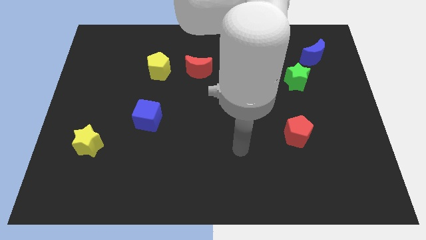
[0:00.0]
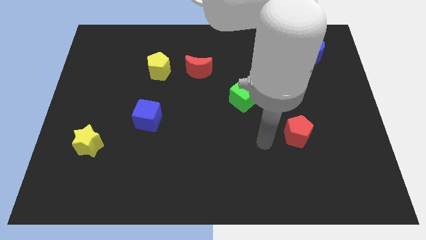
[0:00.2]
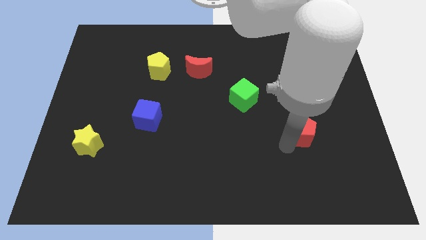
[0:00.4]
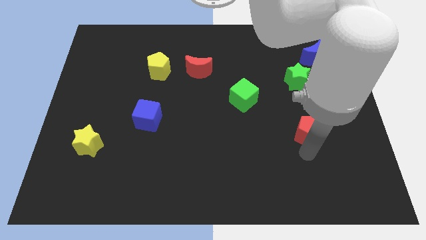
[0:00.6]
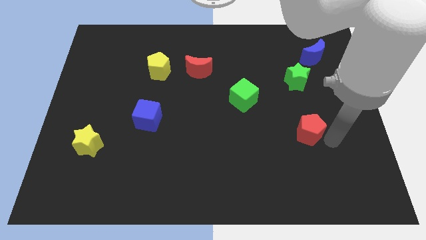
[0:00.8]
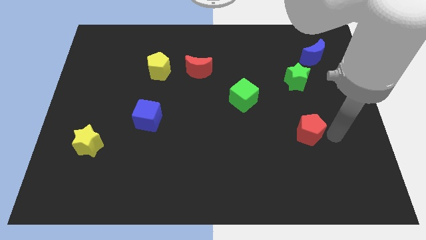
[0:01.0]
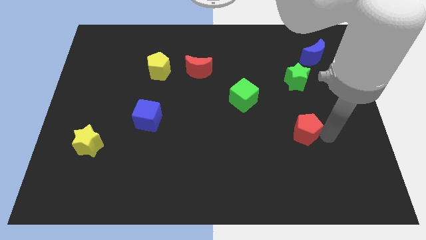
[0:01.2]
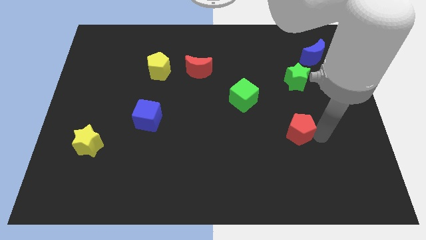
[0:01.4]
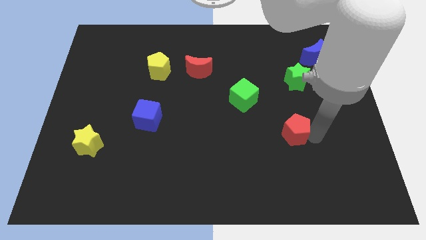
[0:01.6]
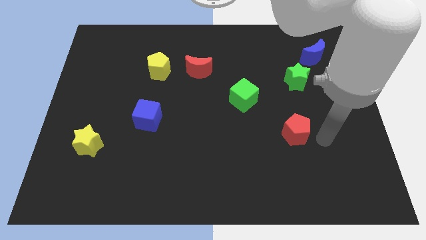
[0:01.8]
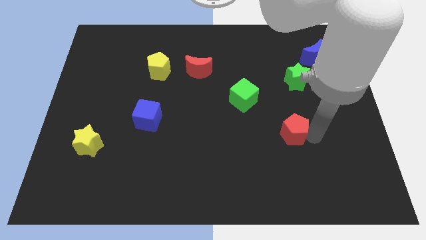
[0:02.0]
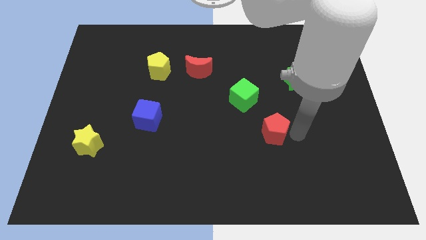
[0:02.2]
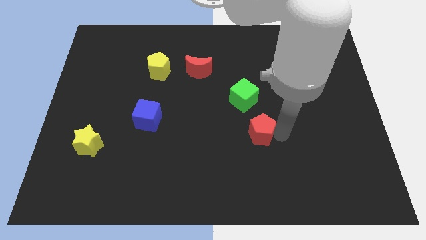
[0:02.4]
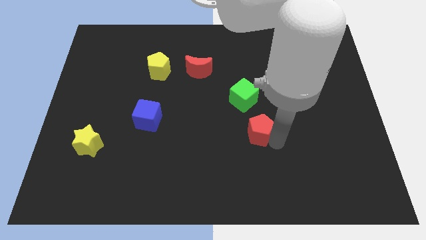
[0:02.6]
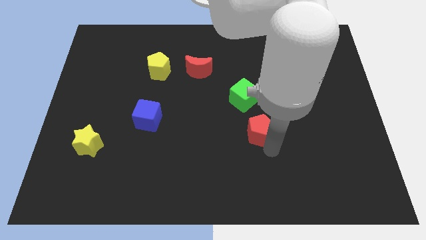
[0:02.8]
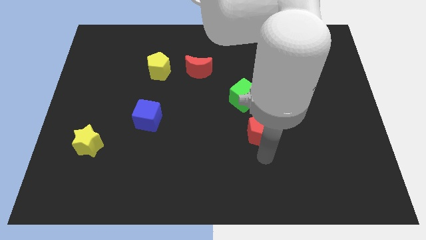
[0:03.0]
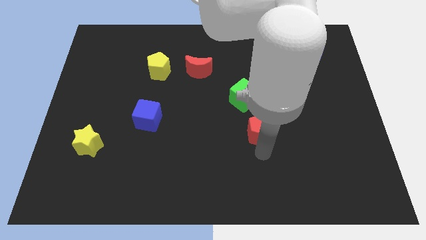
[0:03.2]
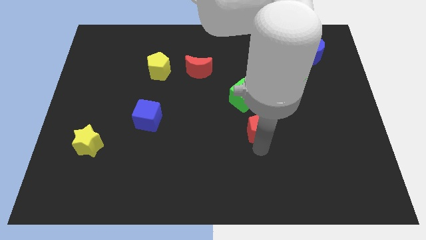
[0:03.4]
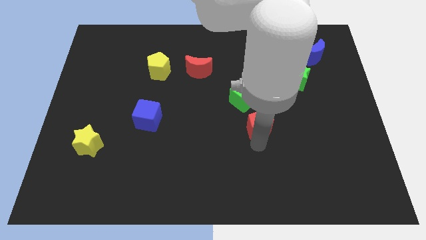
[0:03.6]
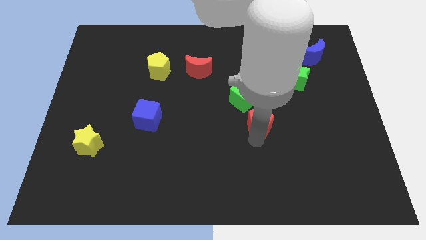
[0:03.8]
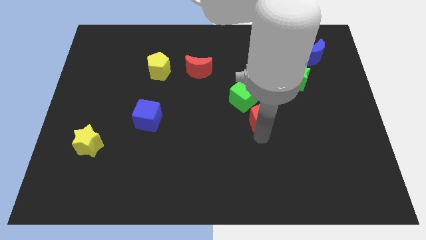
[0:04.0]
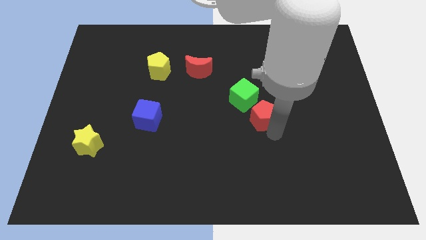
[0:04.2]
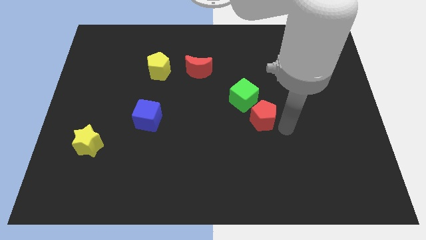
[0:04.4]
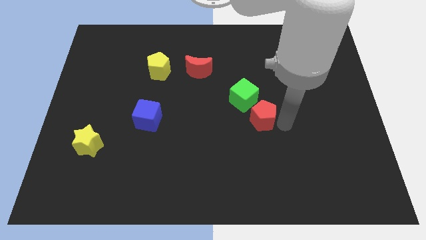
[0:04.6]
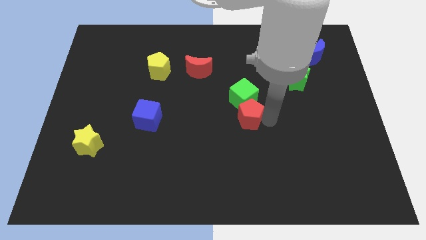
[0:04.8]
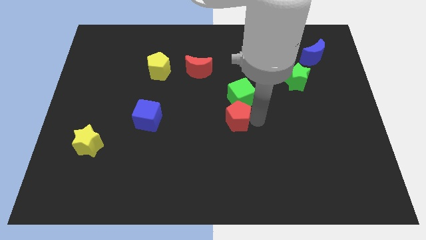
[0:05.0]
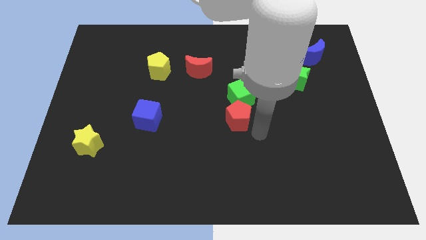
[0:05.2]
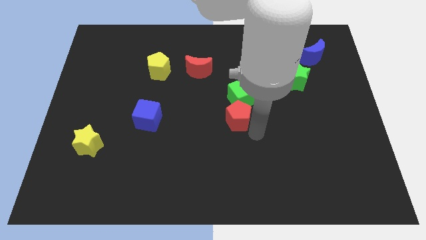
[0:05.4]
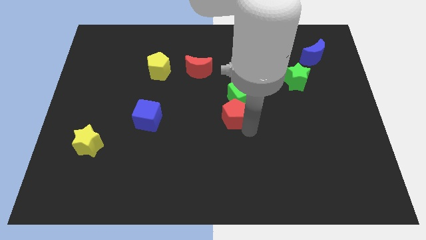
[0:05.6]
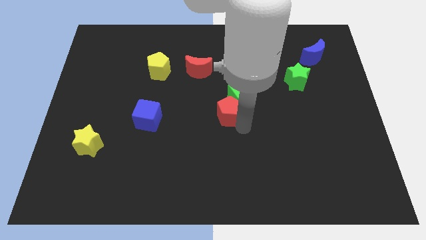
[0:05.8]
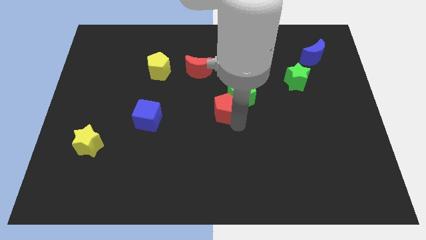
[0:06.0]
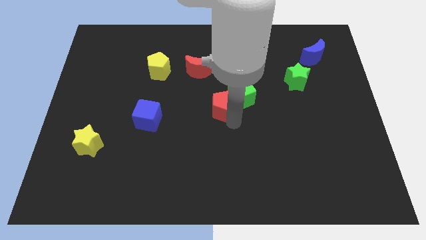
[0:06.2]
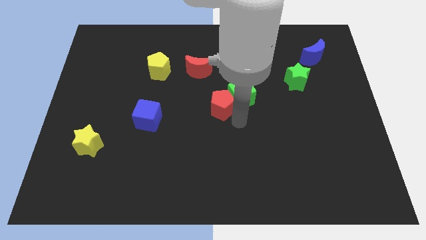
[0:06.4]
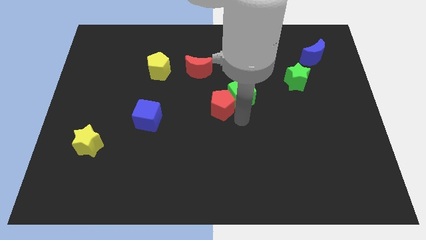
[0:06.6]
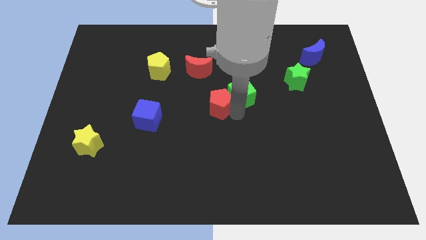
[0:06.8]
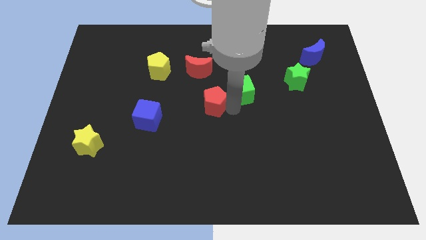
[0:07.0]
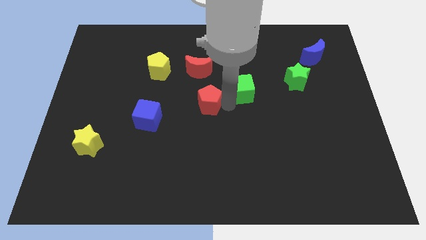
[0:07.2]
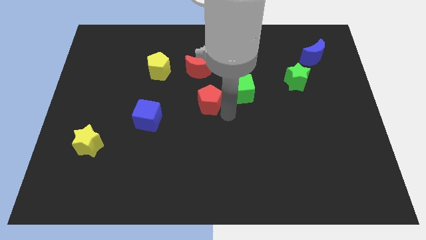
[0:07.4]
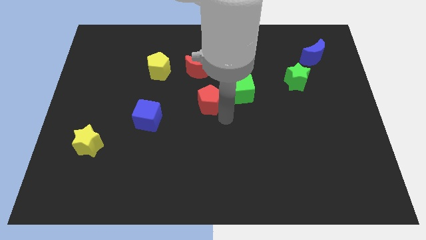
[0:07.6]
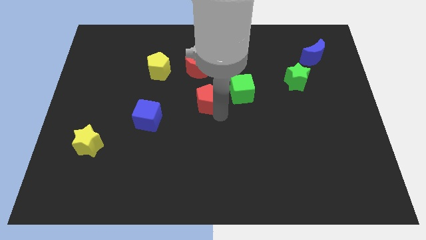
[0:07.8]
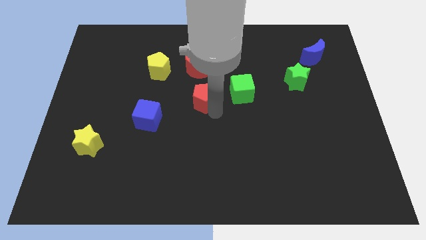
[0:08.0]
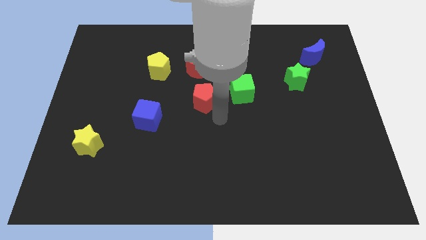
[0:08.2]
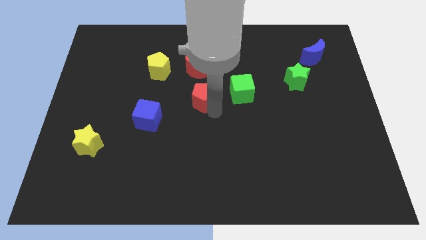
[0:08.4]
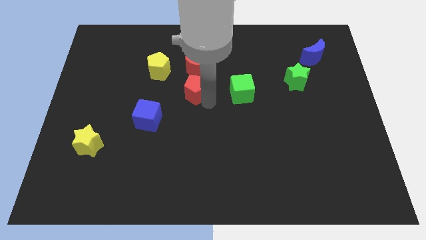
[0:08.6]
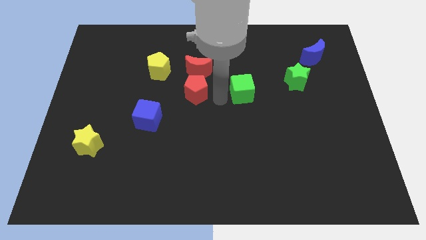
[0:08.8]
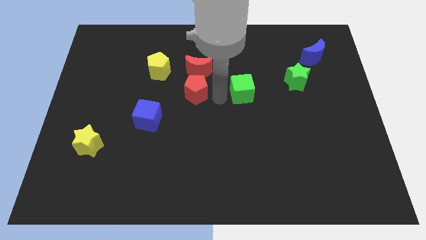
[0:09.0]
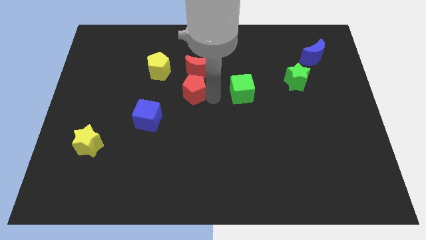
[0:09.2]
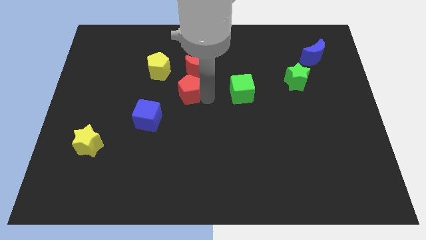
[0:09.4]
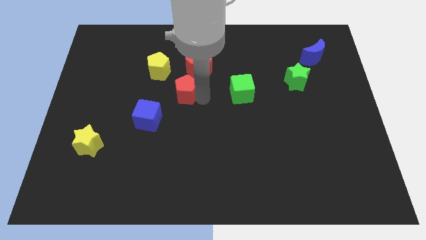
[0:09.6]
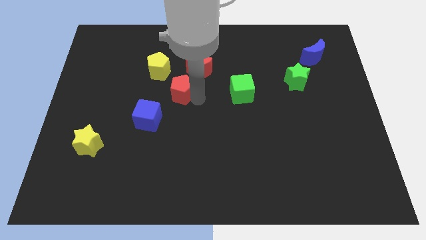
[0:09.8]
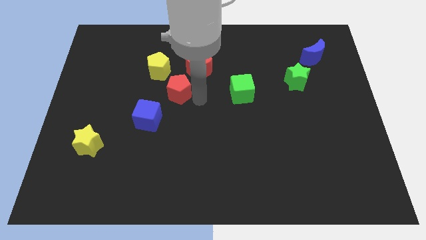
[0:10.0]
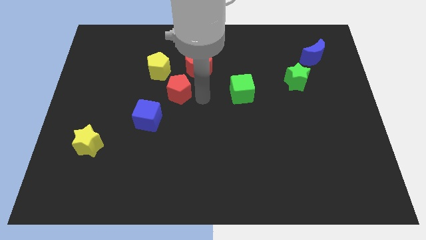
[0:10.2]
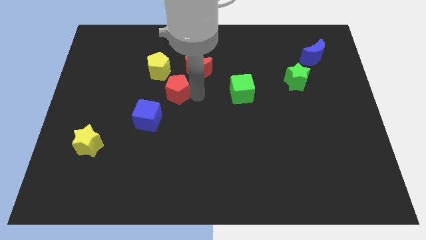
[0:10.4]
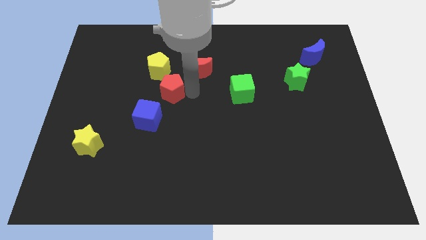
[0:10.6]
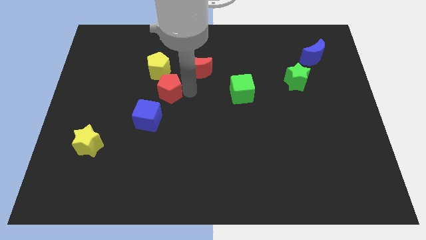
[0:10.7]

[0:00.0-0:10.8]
slide the red pentagon to the top side of the blue cube

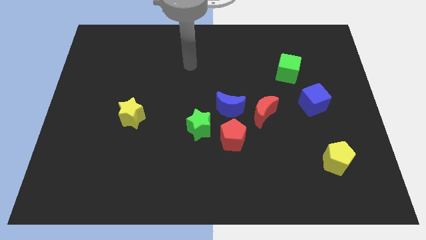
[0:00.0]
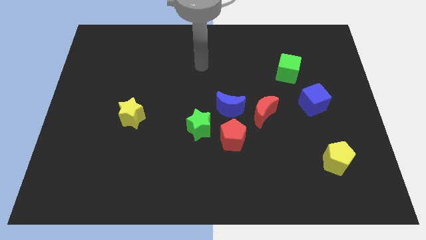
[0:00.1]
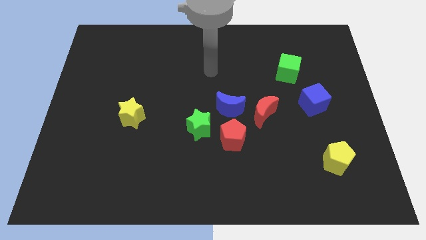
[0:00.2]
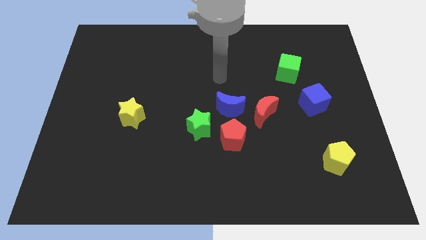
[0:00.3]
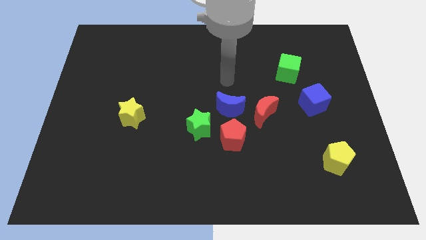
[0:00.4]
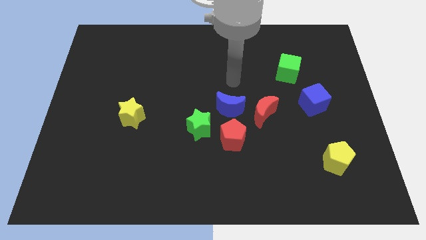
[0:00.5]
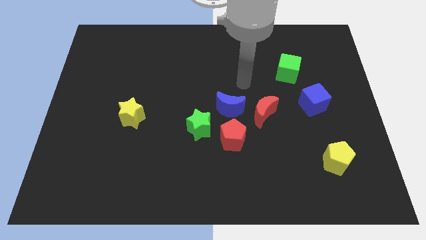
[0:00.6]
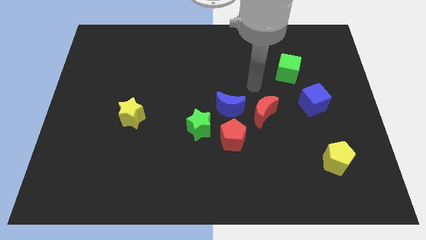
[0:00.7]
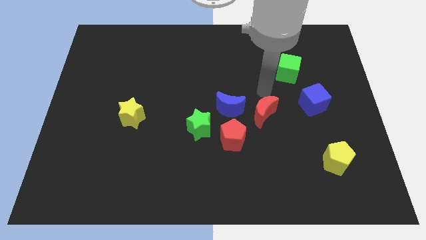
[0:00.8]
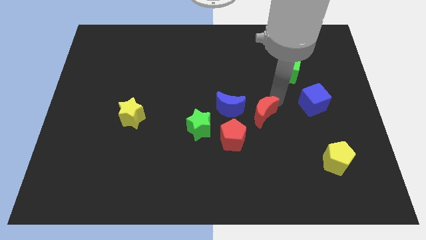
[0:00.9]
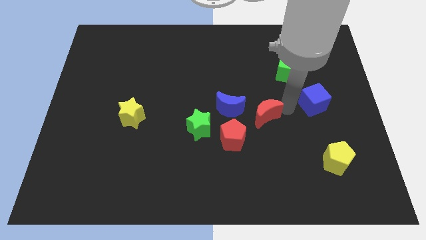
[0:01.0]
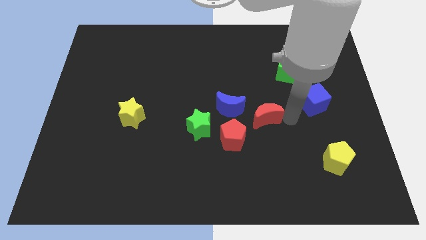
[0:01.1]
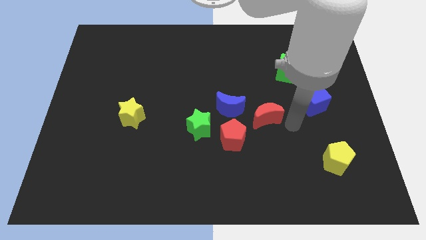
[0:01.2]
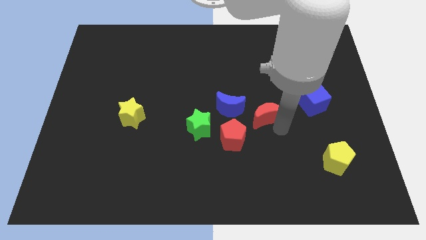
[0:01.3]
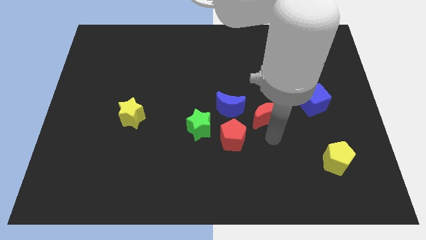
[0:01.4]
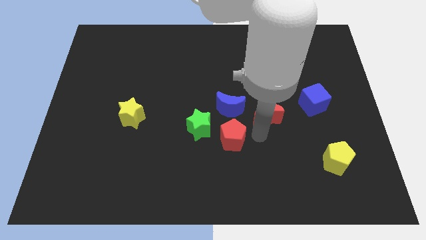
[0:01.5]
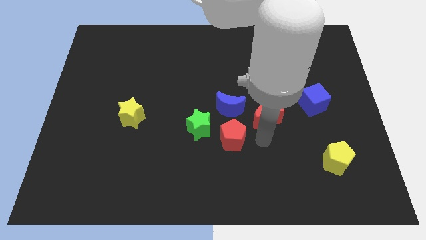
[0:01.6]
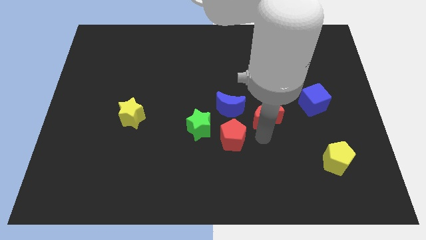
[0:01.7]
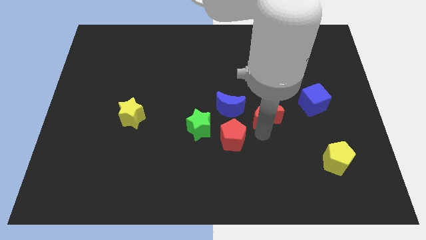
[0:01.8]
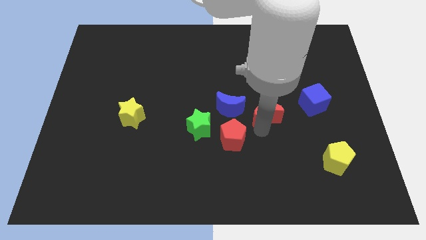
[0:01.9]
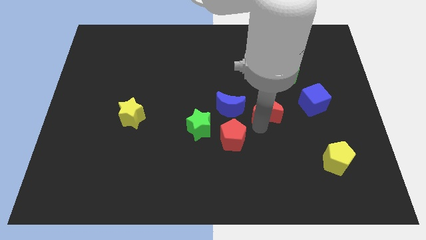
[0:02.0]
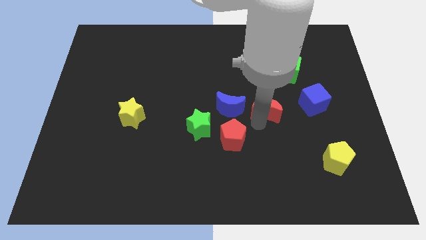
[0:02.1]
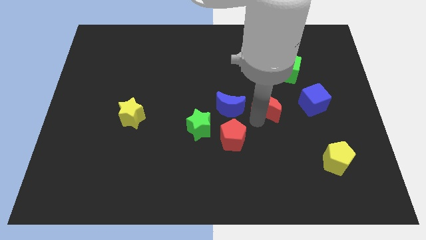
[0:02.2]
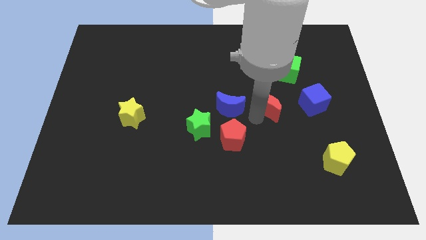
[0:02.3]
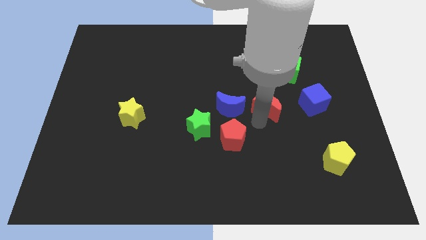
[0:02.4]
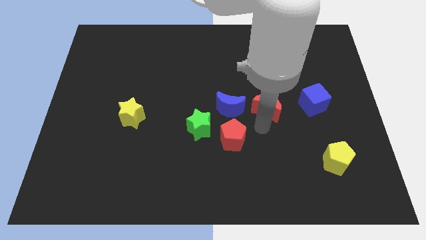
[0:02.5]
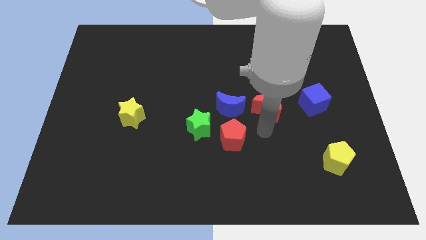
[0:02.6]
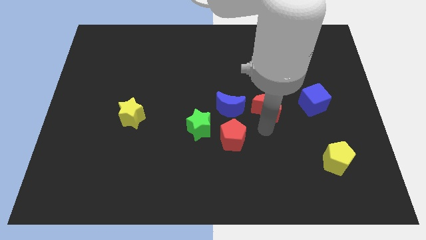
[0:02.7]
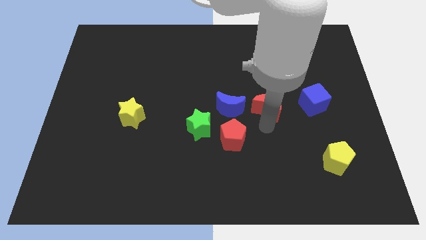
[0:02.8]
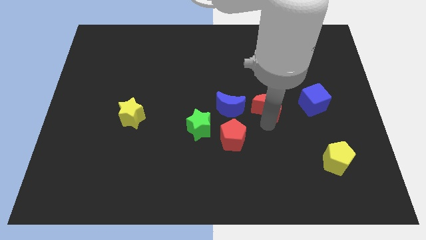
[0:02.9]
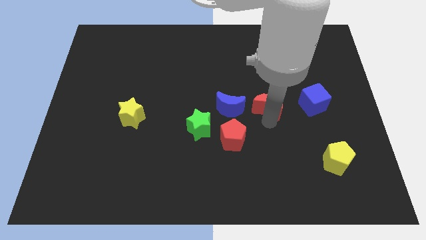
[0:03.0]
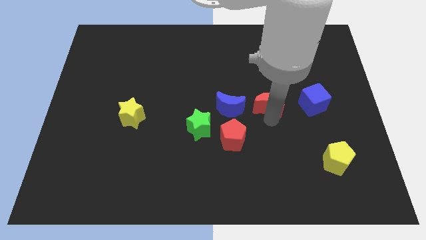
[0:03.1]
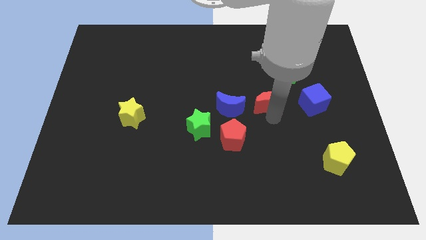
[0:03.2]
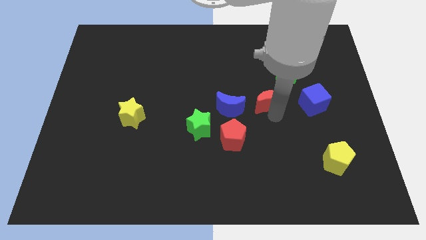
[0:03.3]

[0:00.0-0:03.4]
move the red moon to the bottom left of the green cube
